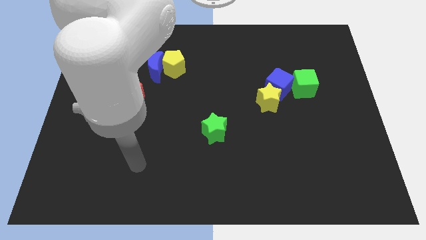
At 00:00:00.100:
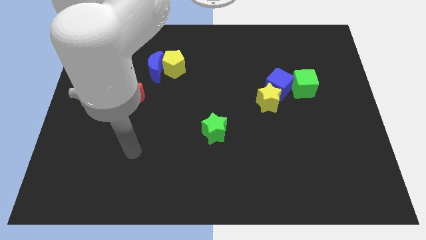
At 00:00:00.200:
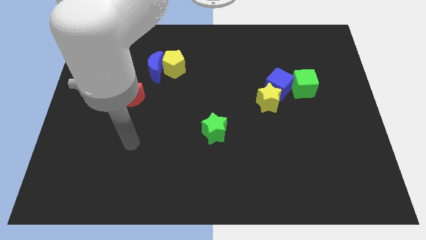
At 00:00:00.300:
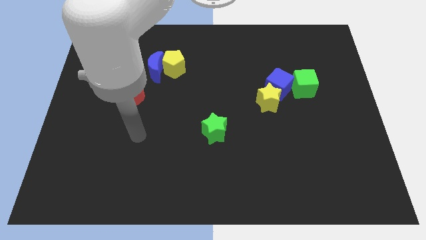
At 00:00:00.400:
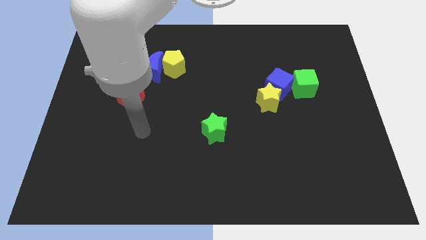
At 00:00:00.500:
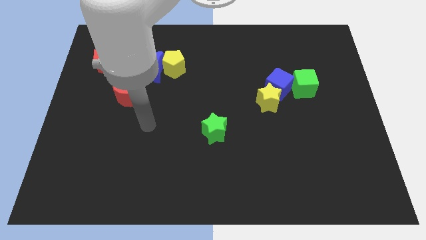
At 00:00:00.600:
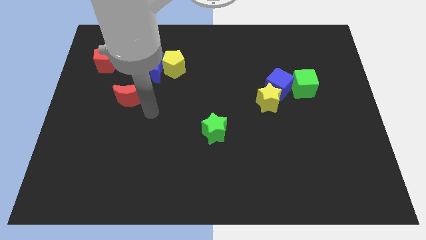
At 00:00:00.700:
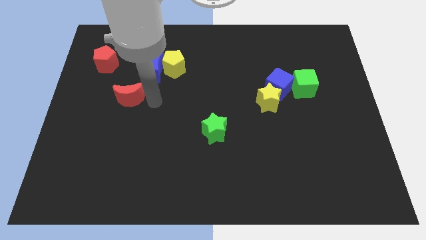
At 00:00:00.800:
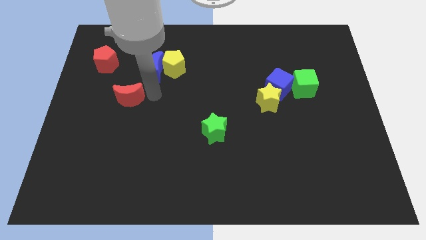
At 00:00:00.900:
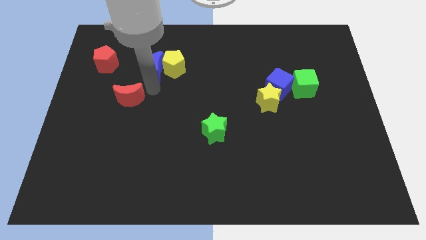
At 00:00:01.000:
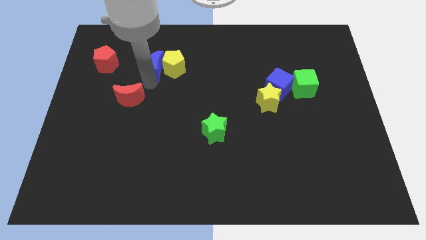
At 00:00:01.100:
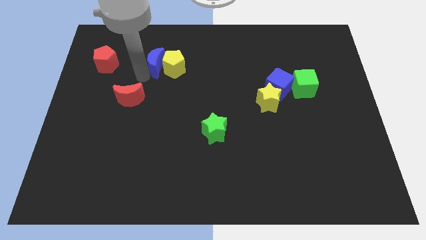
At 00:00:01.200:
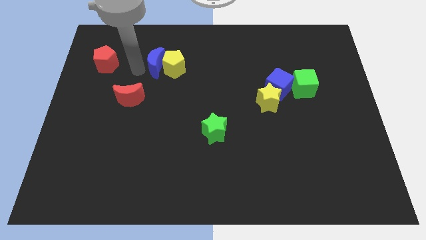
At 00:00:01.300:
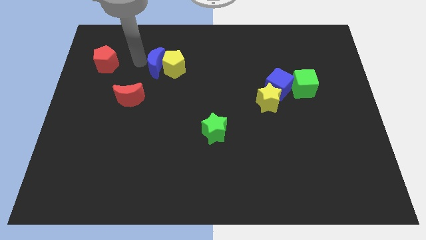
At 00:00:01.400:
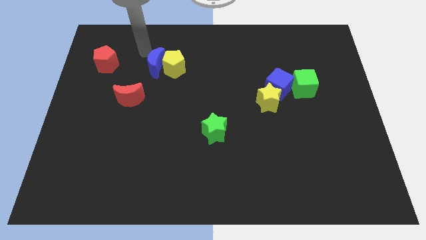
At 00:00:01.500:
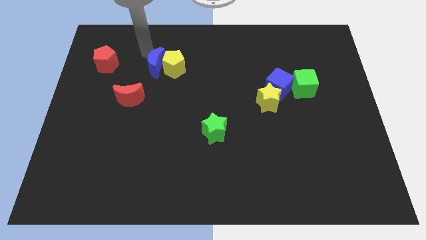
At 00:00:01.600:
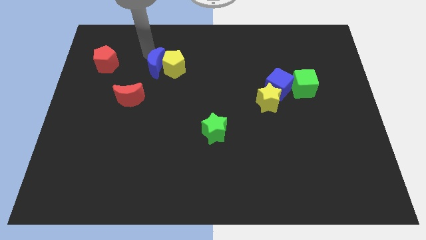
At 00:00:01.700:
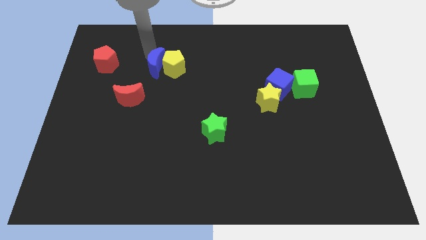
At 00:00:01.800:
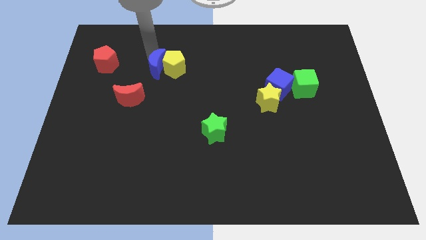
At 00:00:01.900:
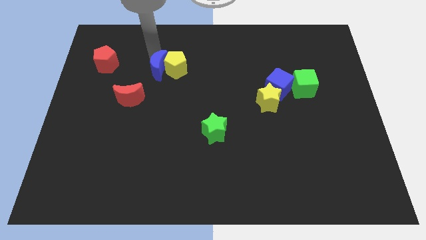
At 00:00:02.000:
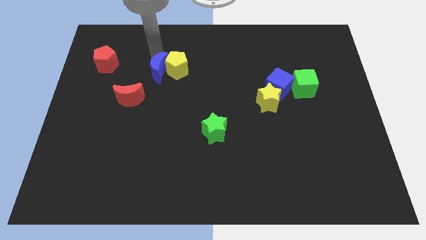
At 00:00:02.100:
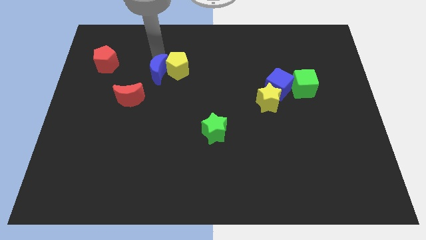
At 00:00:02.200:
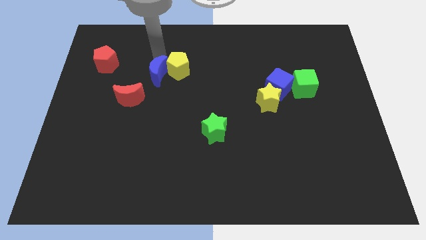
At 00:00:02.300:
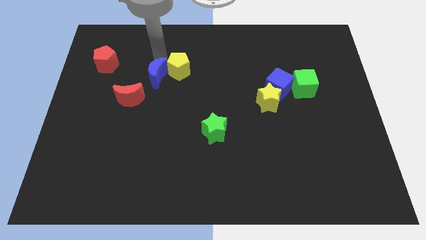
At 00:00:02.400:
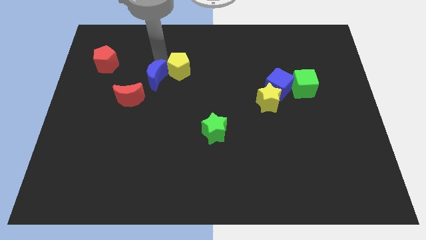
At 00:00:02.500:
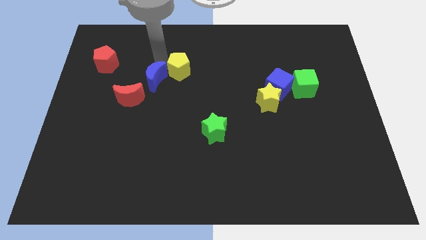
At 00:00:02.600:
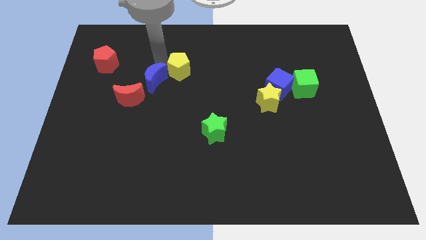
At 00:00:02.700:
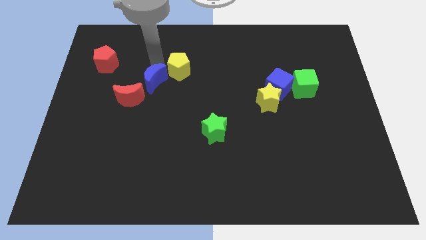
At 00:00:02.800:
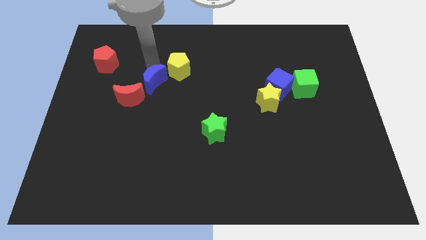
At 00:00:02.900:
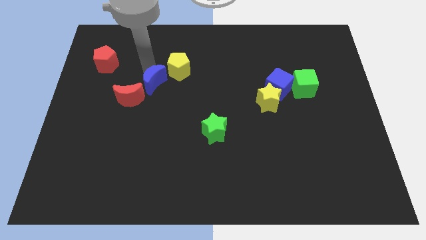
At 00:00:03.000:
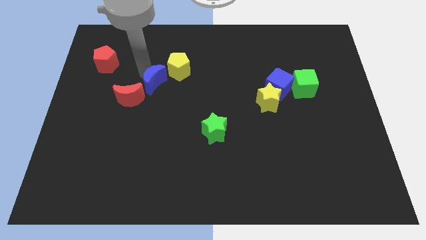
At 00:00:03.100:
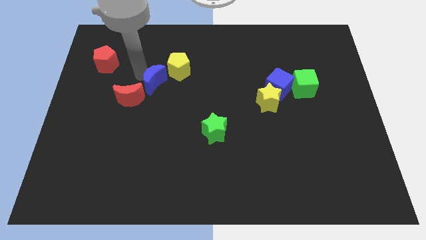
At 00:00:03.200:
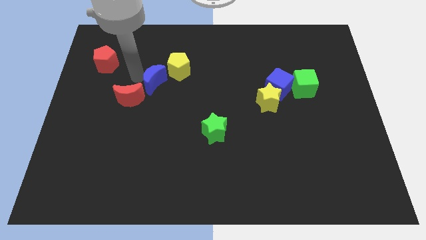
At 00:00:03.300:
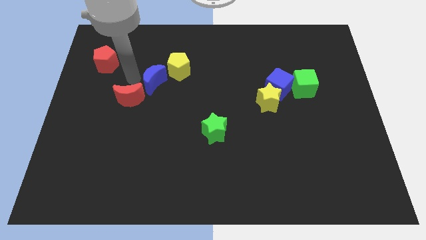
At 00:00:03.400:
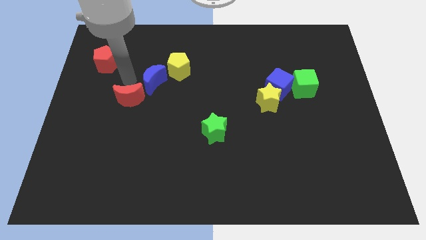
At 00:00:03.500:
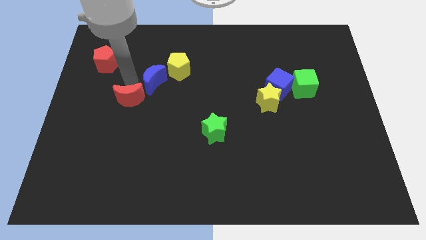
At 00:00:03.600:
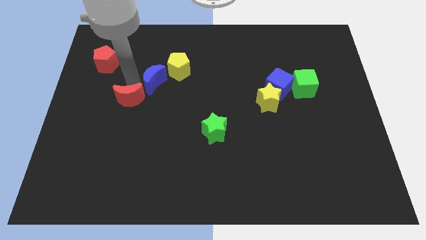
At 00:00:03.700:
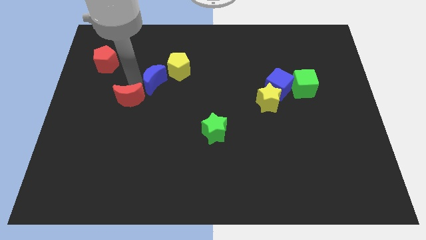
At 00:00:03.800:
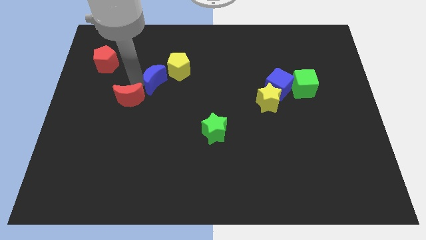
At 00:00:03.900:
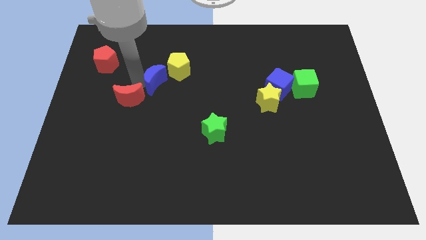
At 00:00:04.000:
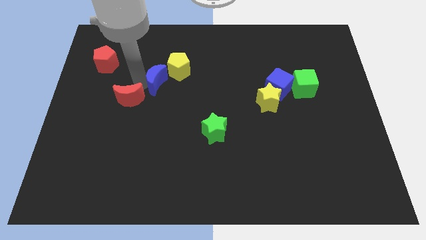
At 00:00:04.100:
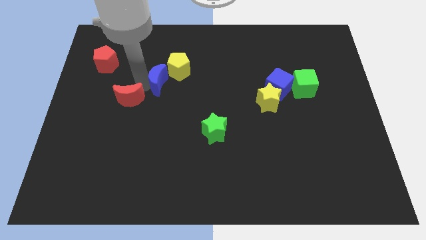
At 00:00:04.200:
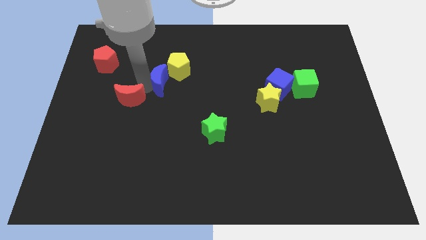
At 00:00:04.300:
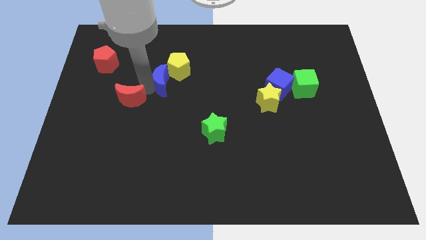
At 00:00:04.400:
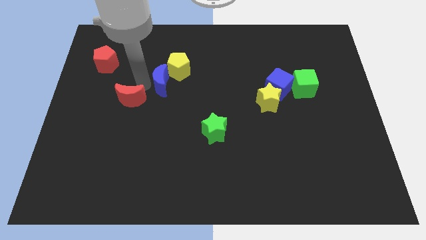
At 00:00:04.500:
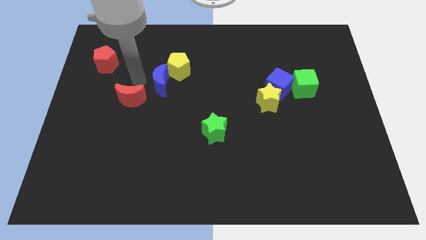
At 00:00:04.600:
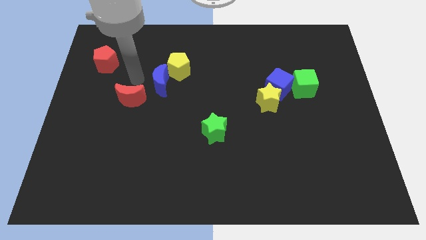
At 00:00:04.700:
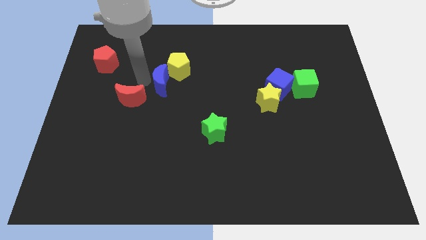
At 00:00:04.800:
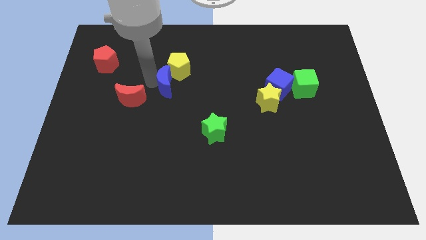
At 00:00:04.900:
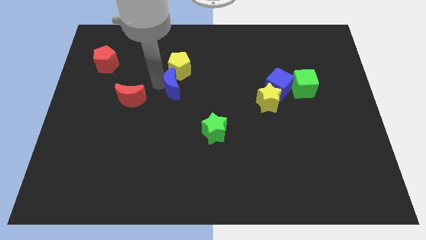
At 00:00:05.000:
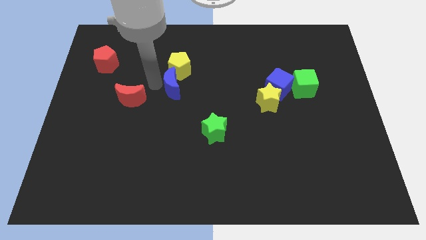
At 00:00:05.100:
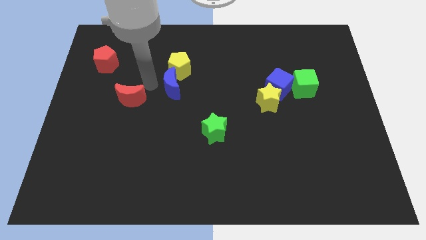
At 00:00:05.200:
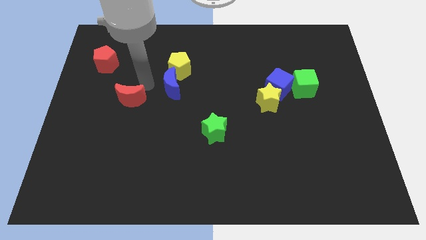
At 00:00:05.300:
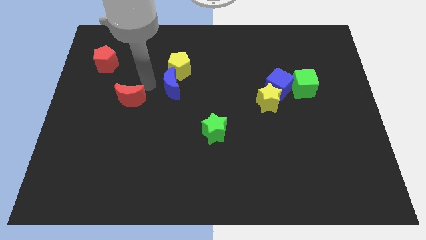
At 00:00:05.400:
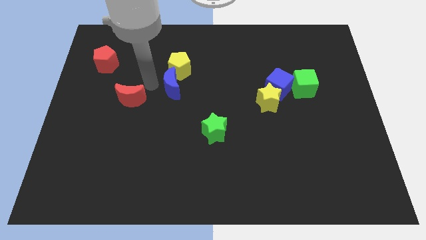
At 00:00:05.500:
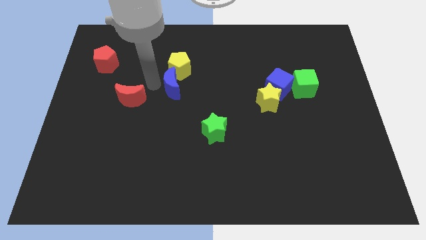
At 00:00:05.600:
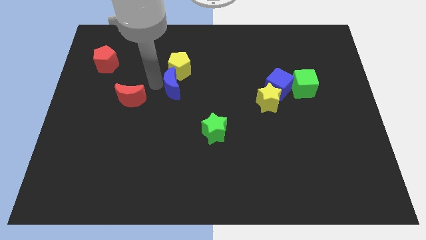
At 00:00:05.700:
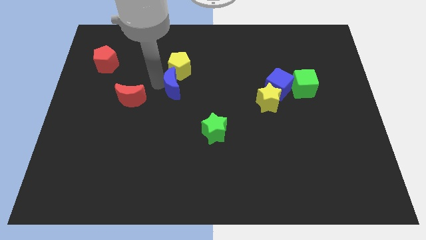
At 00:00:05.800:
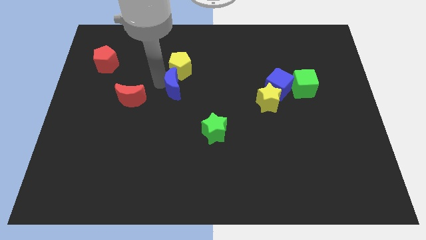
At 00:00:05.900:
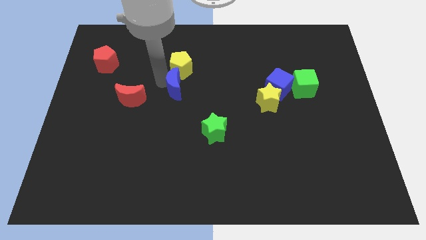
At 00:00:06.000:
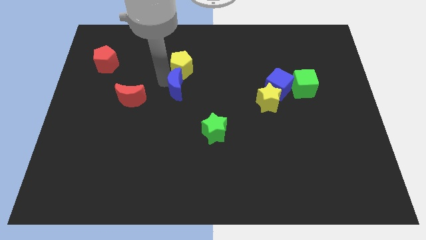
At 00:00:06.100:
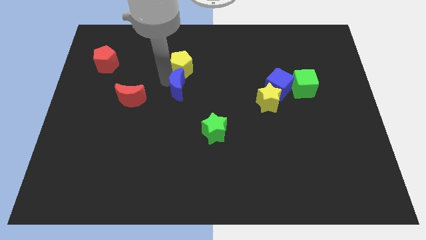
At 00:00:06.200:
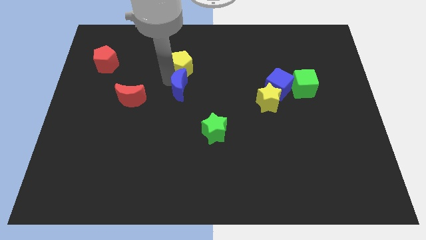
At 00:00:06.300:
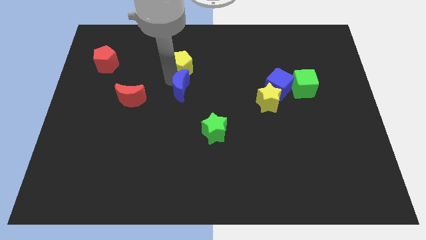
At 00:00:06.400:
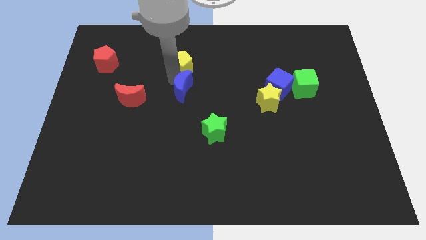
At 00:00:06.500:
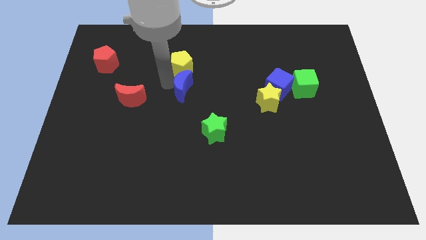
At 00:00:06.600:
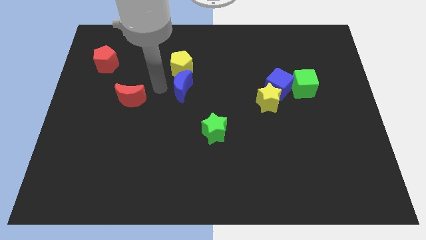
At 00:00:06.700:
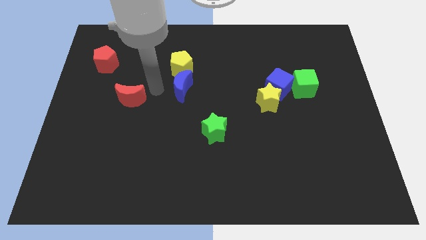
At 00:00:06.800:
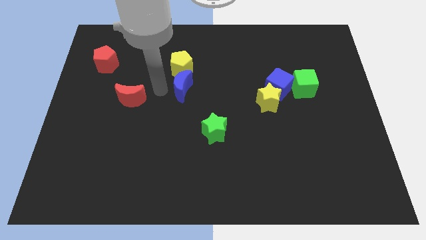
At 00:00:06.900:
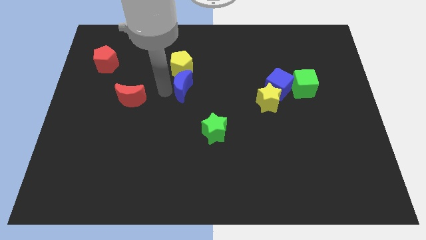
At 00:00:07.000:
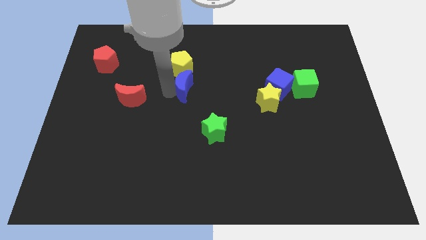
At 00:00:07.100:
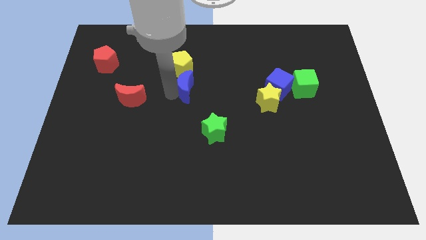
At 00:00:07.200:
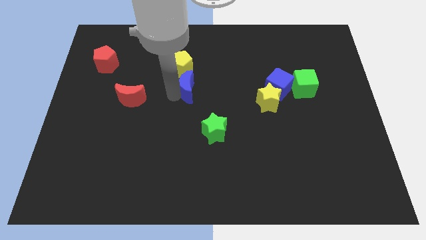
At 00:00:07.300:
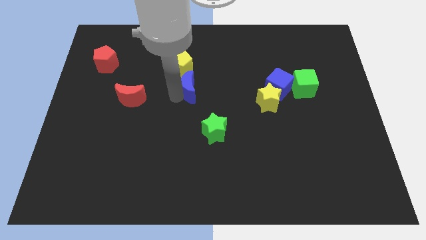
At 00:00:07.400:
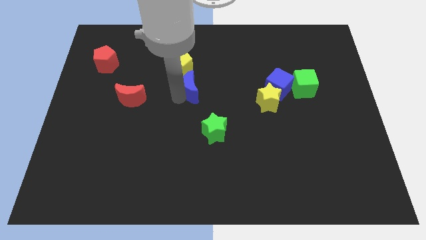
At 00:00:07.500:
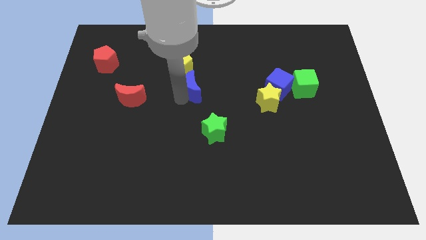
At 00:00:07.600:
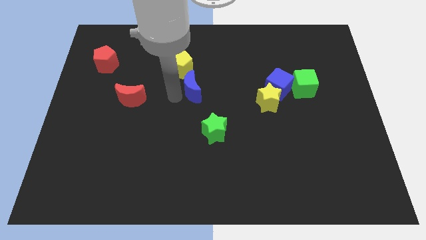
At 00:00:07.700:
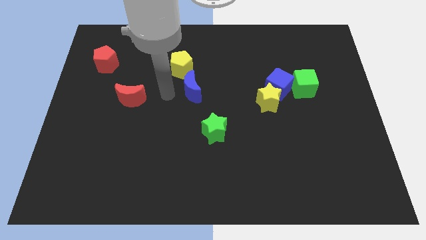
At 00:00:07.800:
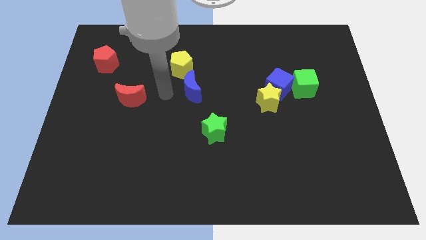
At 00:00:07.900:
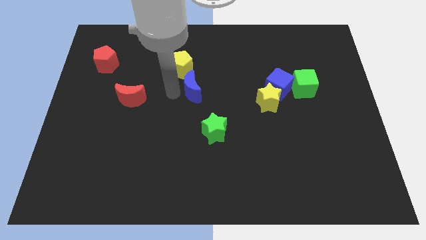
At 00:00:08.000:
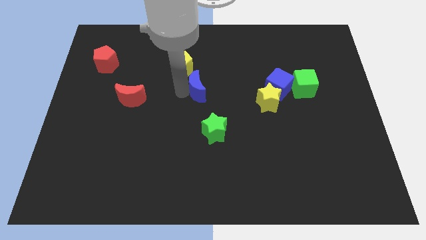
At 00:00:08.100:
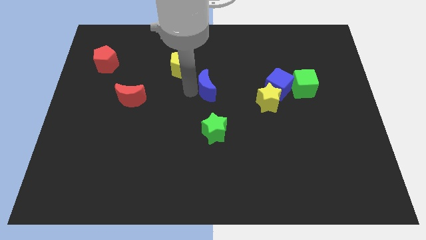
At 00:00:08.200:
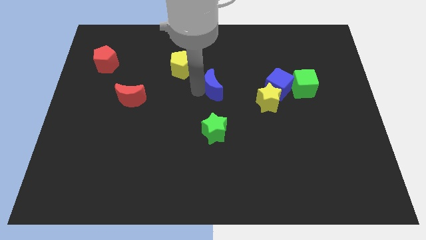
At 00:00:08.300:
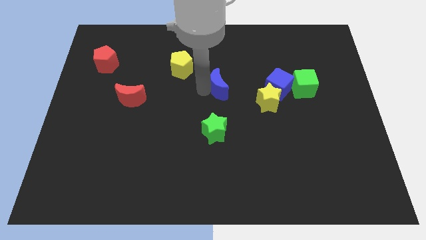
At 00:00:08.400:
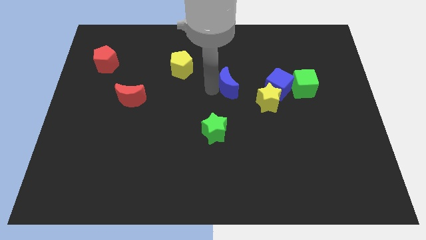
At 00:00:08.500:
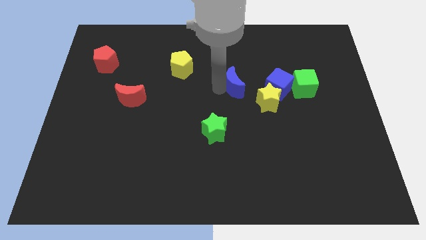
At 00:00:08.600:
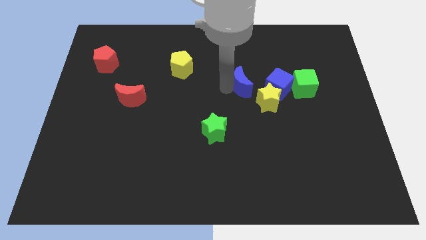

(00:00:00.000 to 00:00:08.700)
push the blue moon right
